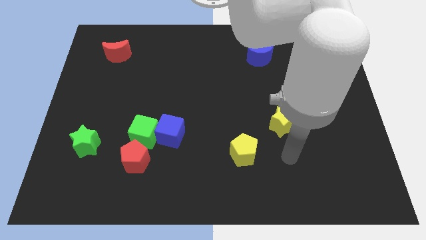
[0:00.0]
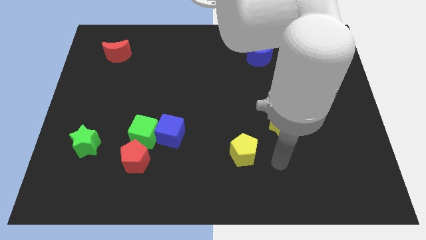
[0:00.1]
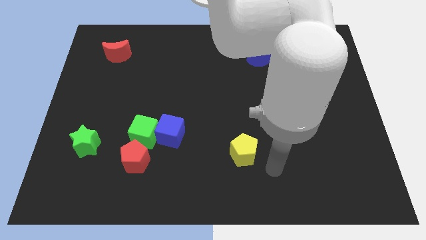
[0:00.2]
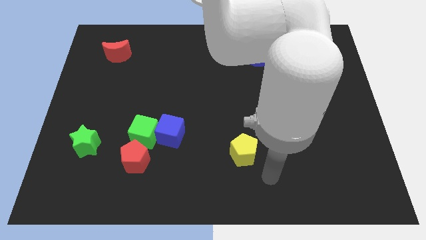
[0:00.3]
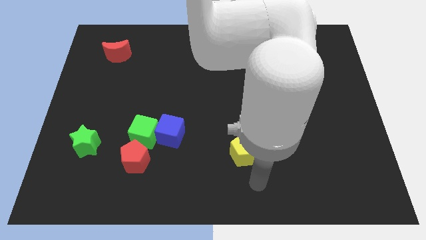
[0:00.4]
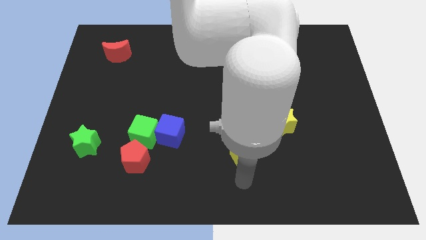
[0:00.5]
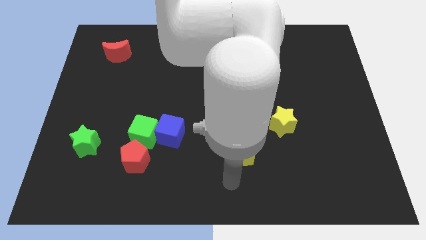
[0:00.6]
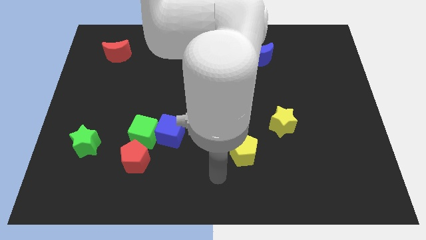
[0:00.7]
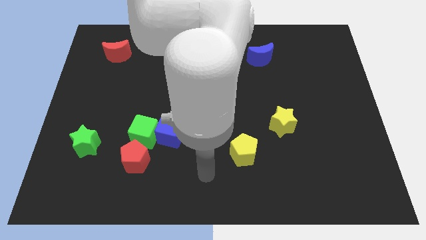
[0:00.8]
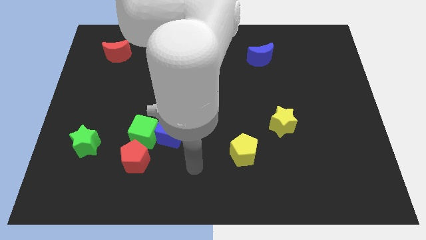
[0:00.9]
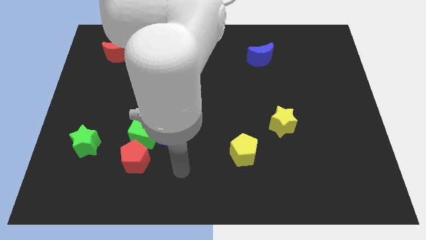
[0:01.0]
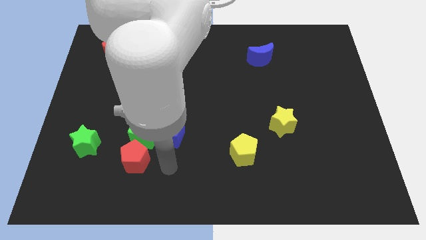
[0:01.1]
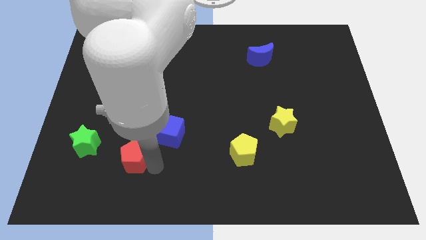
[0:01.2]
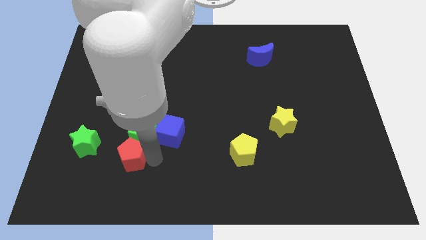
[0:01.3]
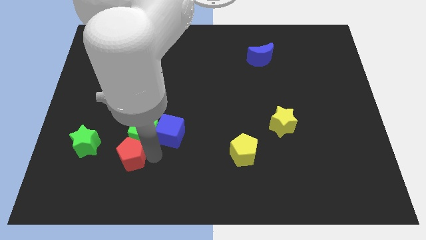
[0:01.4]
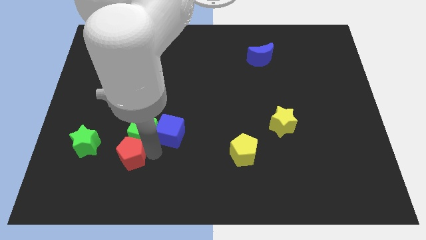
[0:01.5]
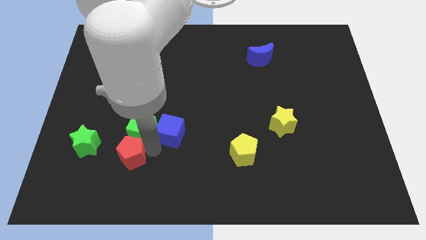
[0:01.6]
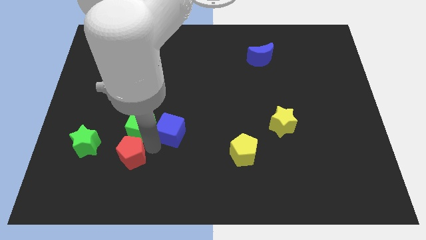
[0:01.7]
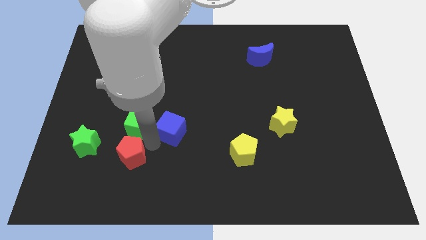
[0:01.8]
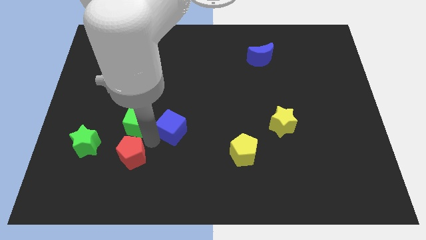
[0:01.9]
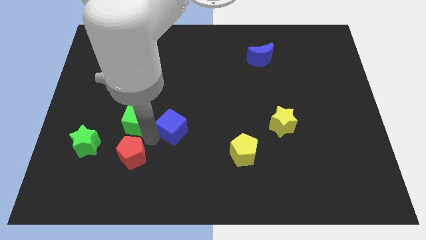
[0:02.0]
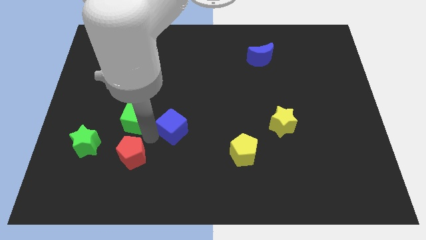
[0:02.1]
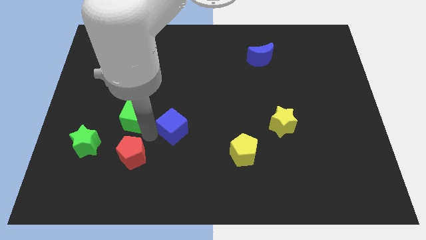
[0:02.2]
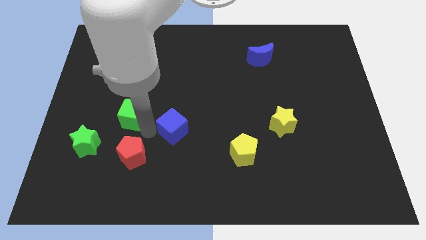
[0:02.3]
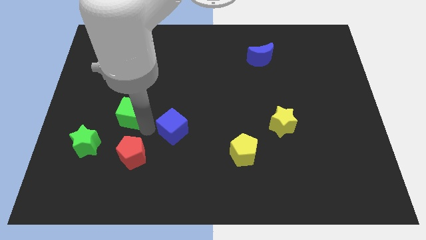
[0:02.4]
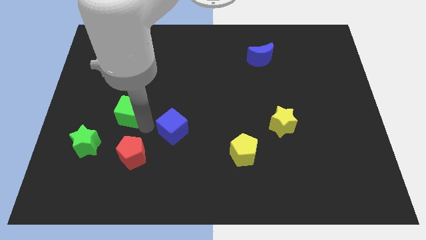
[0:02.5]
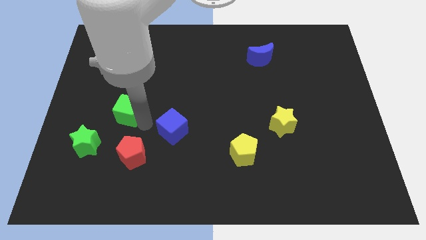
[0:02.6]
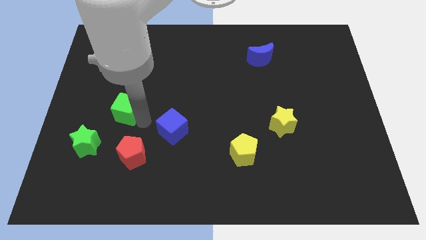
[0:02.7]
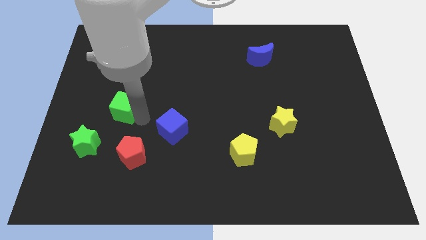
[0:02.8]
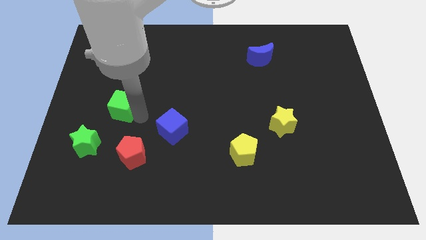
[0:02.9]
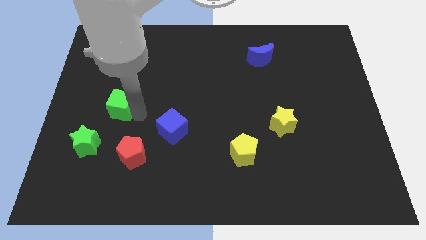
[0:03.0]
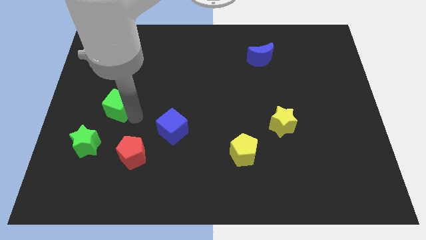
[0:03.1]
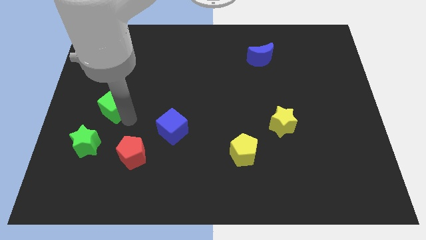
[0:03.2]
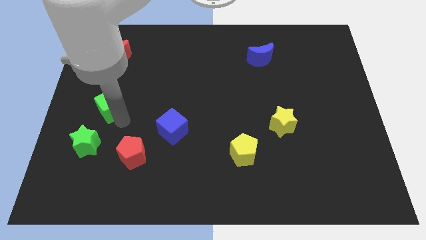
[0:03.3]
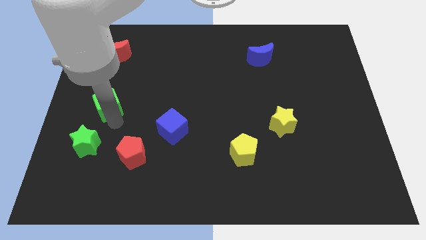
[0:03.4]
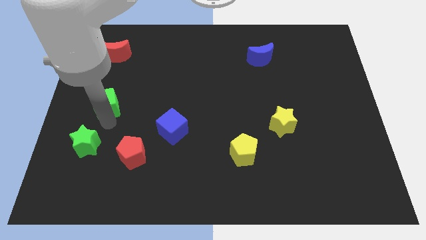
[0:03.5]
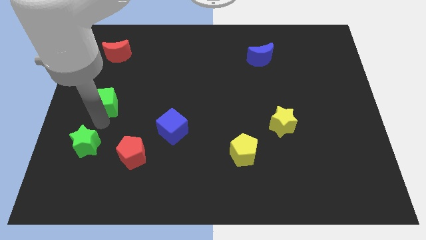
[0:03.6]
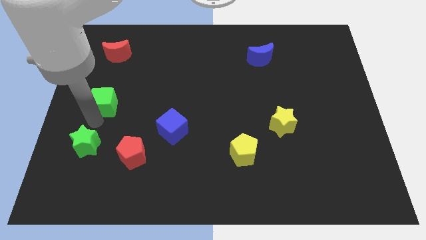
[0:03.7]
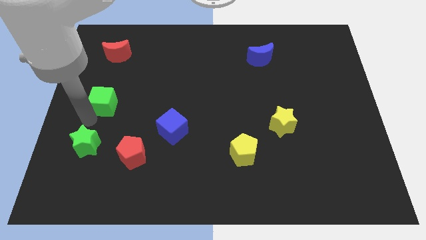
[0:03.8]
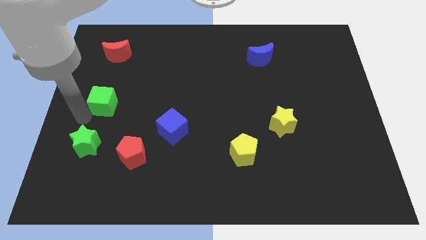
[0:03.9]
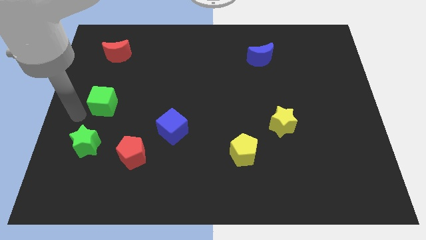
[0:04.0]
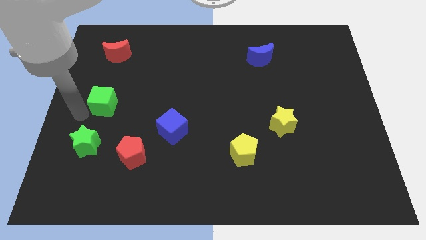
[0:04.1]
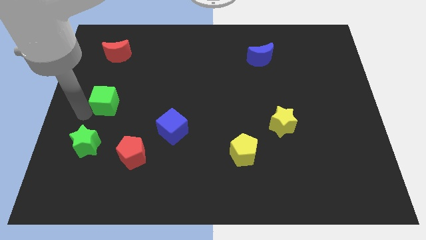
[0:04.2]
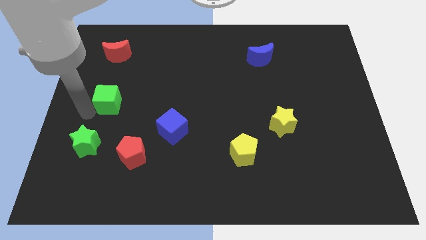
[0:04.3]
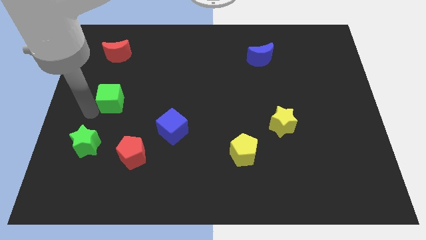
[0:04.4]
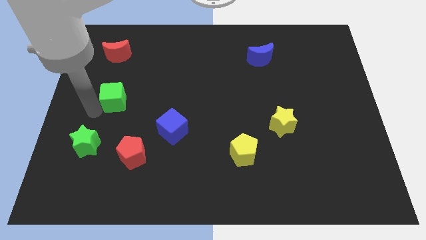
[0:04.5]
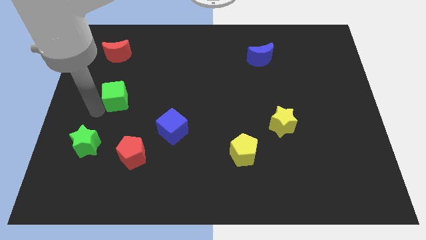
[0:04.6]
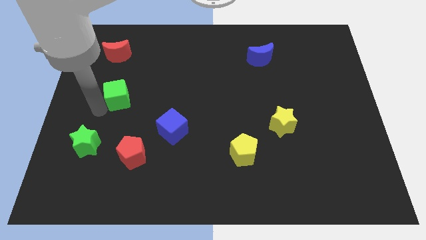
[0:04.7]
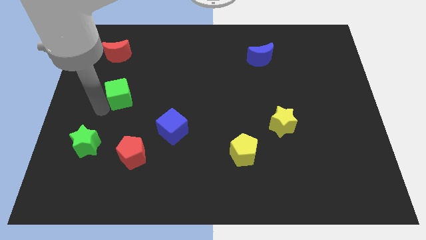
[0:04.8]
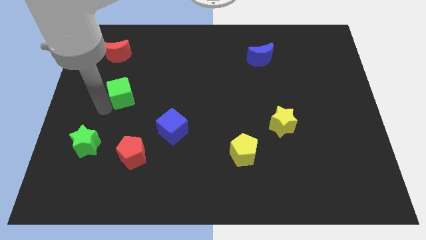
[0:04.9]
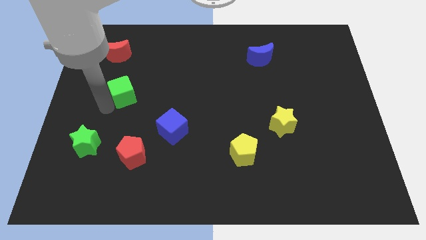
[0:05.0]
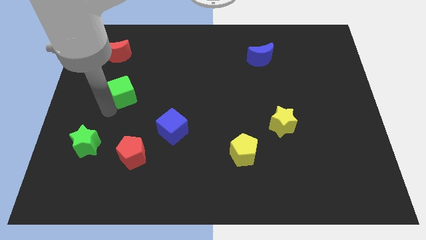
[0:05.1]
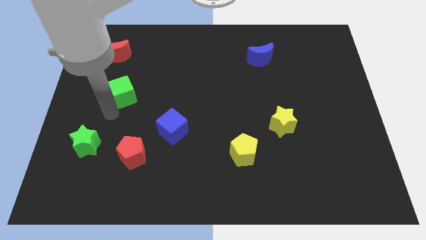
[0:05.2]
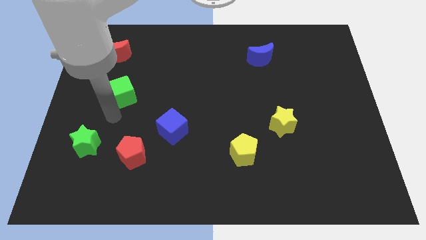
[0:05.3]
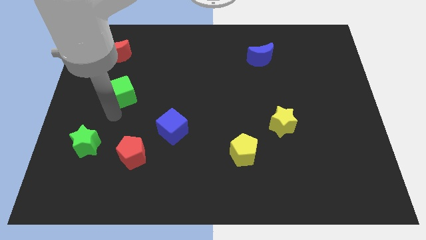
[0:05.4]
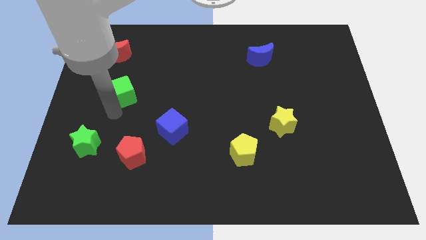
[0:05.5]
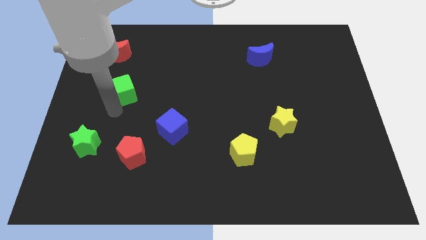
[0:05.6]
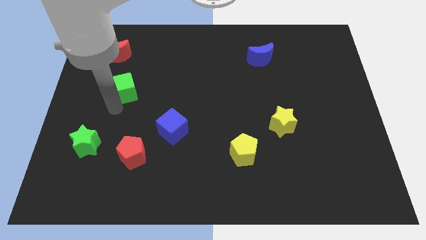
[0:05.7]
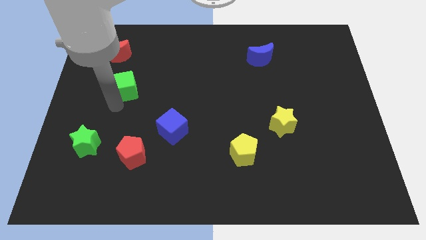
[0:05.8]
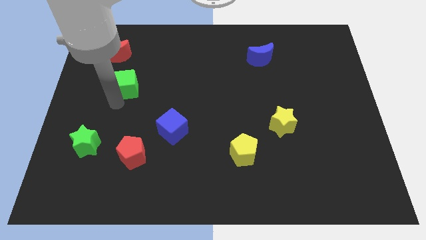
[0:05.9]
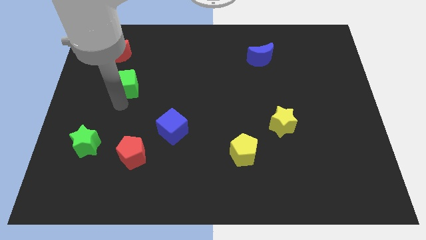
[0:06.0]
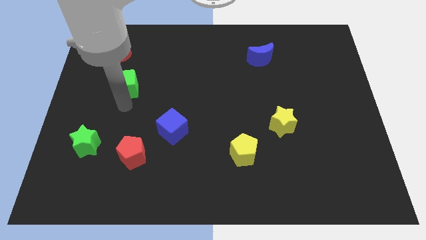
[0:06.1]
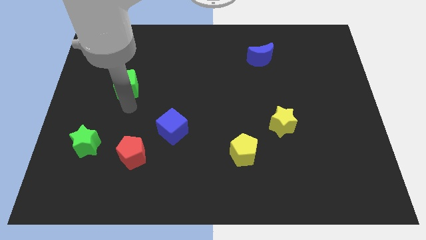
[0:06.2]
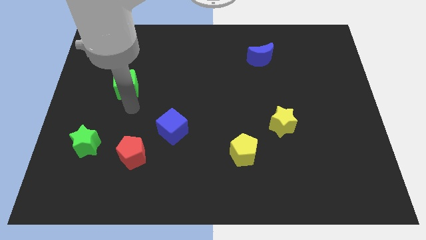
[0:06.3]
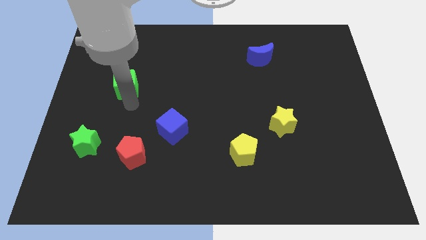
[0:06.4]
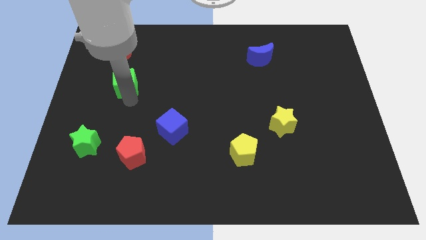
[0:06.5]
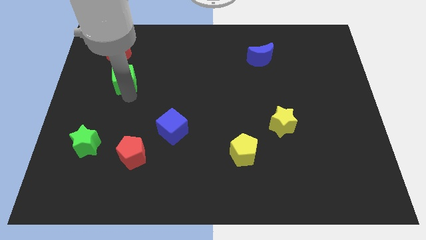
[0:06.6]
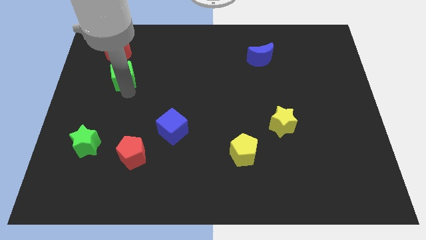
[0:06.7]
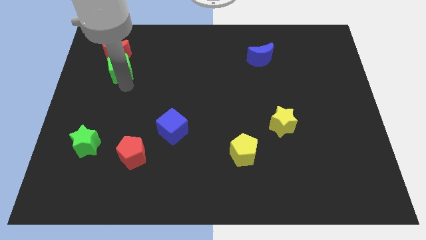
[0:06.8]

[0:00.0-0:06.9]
move the green cube next to the red moon

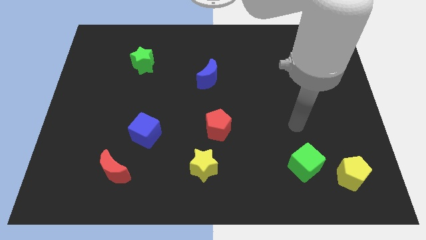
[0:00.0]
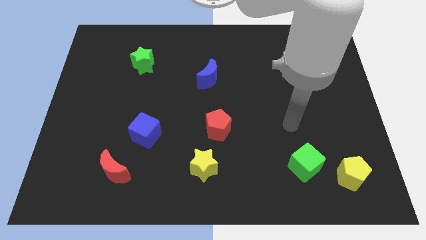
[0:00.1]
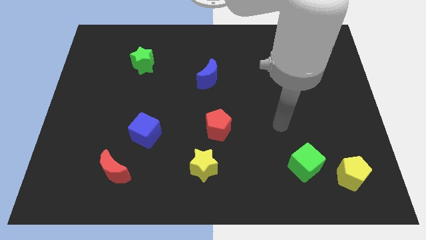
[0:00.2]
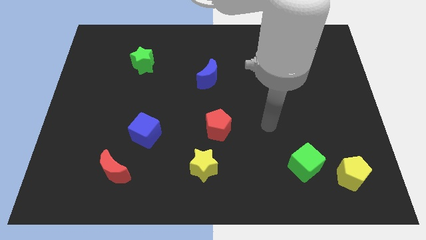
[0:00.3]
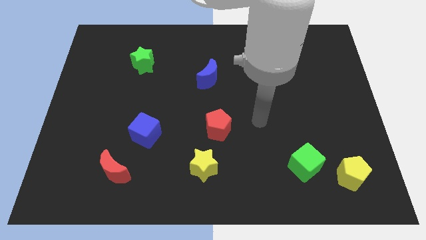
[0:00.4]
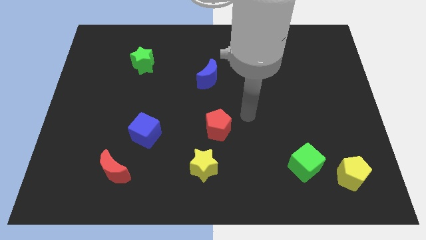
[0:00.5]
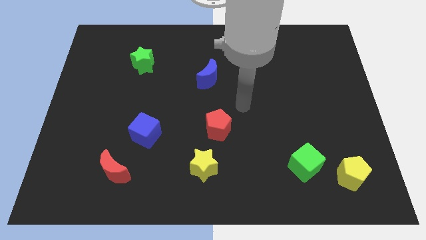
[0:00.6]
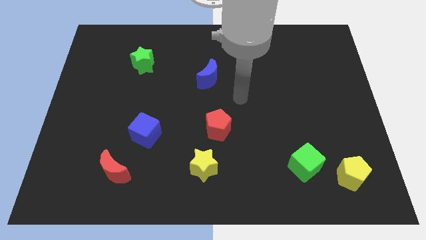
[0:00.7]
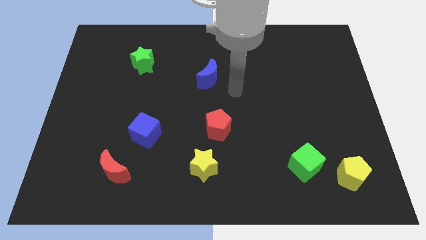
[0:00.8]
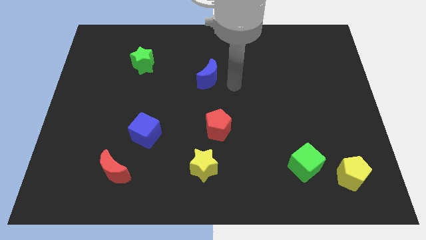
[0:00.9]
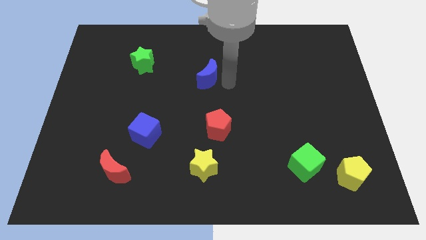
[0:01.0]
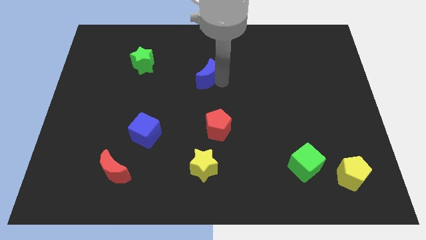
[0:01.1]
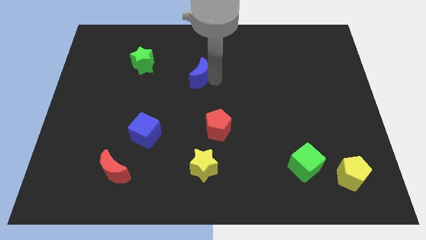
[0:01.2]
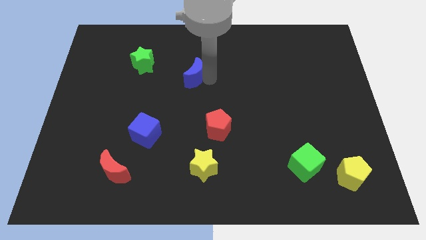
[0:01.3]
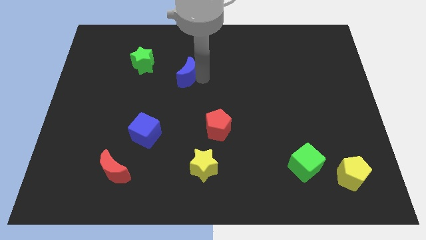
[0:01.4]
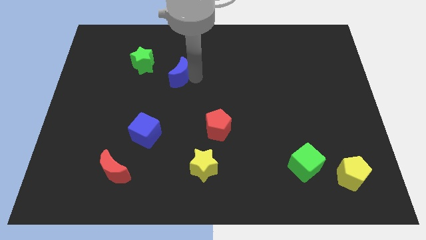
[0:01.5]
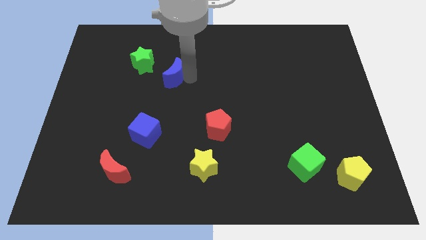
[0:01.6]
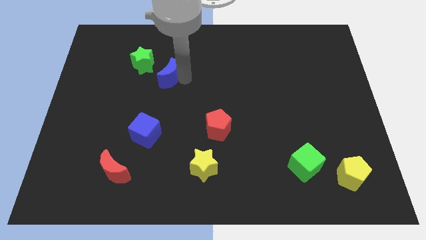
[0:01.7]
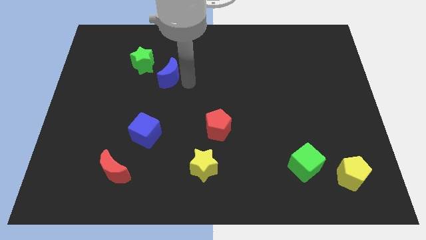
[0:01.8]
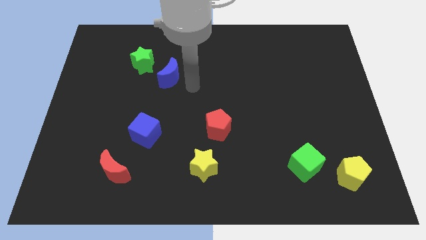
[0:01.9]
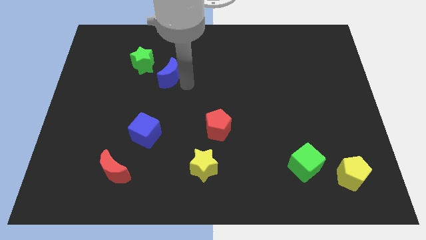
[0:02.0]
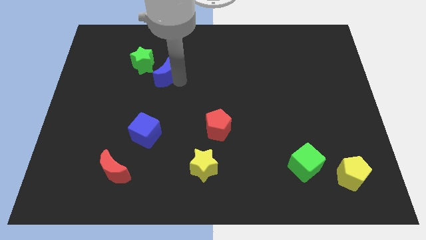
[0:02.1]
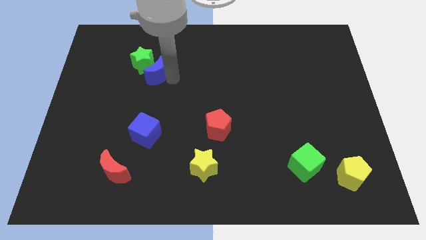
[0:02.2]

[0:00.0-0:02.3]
slide the blue moon close to the green star
